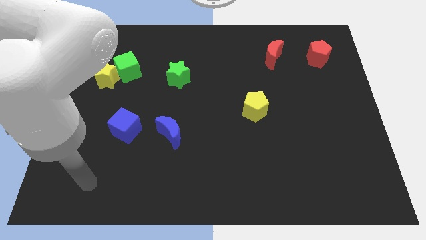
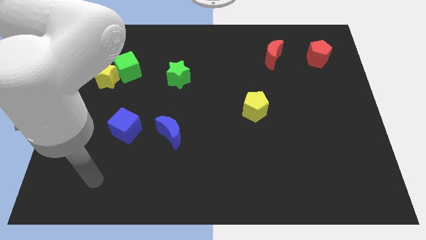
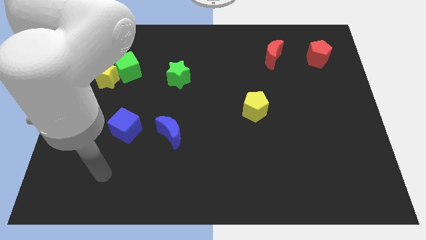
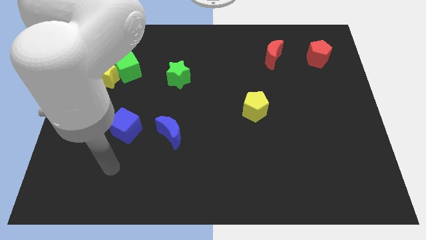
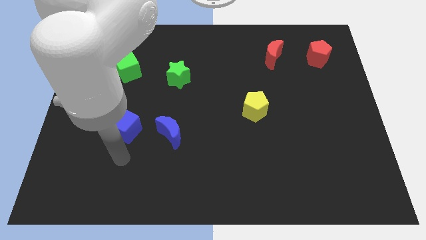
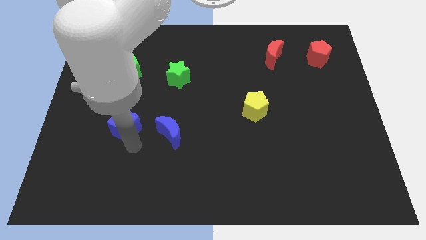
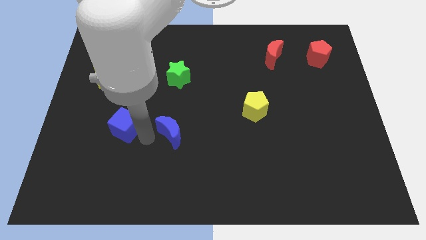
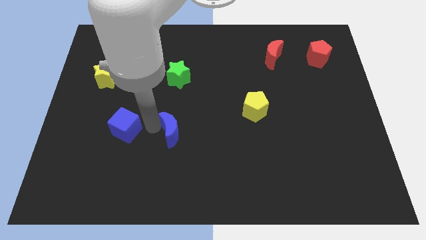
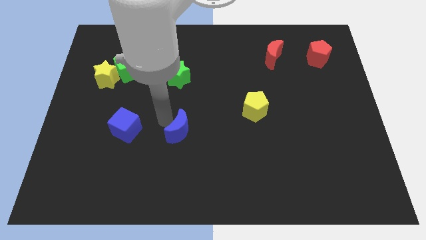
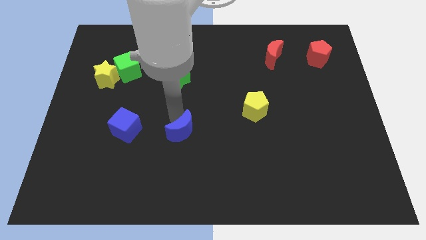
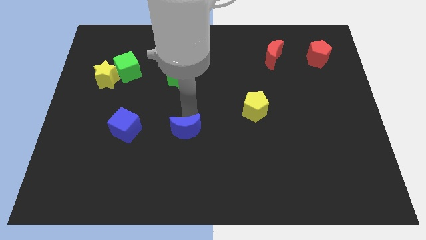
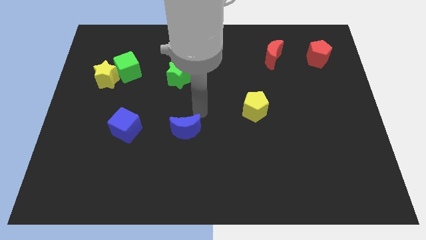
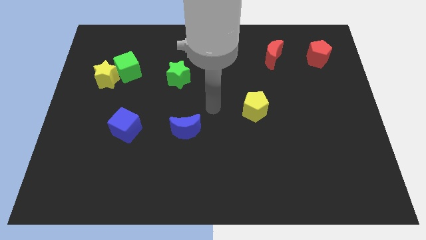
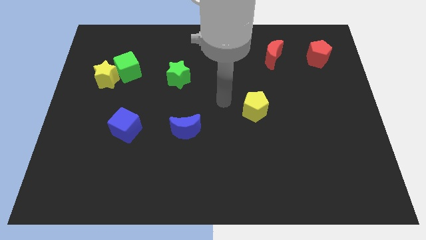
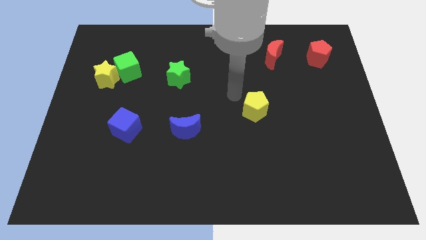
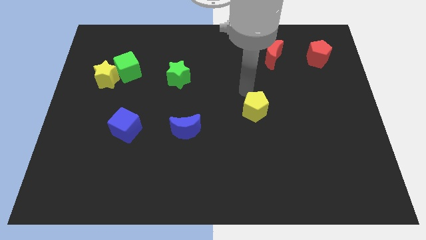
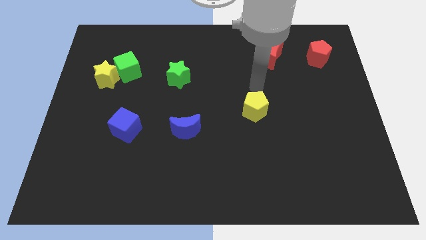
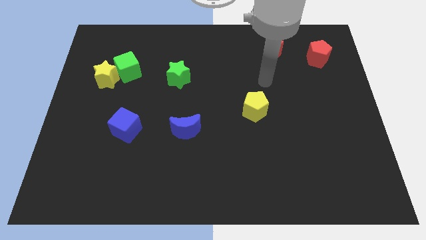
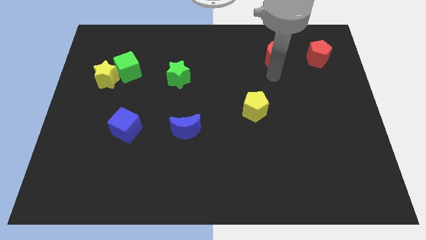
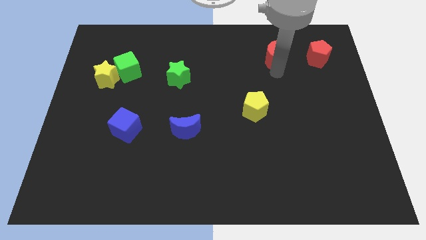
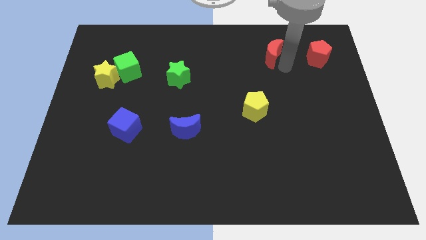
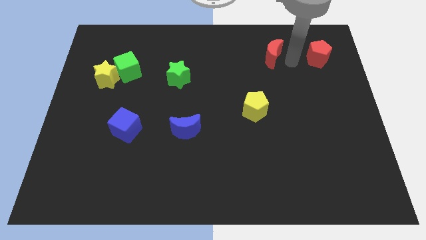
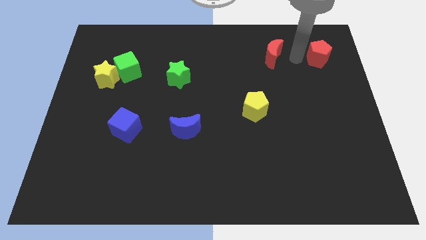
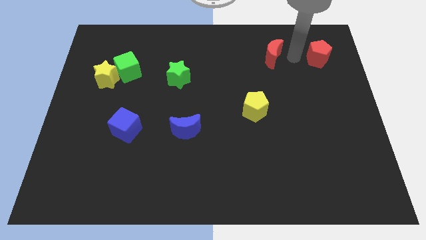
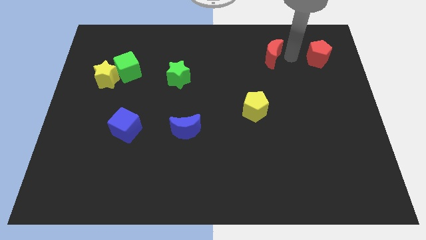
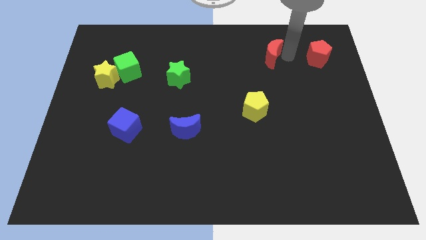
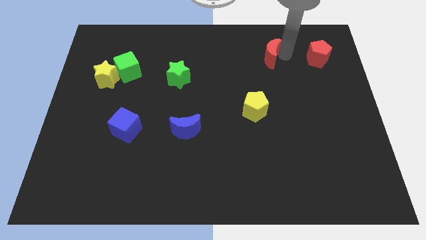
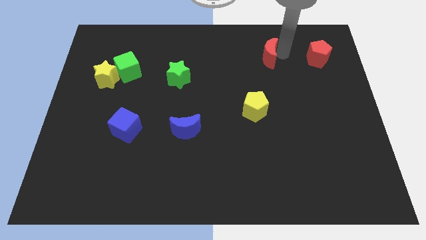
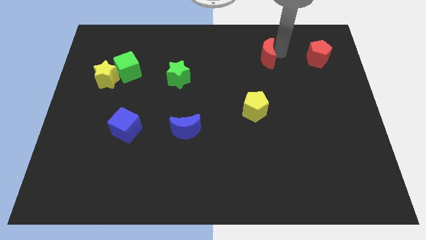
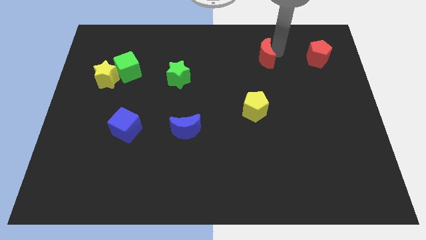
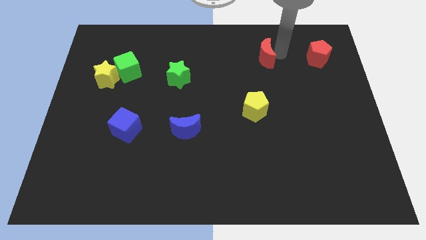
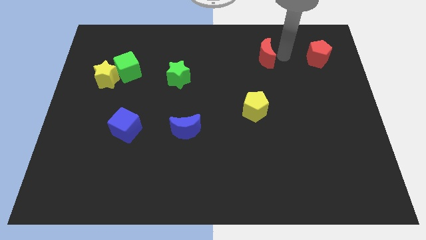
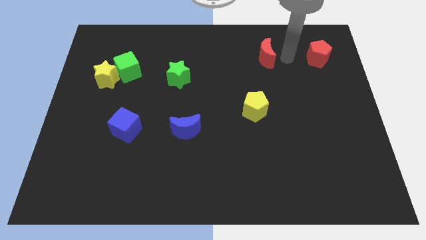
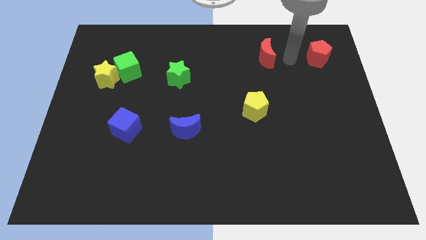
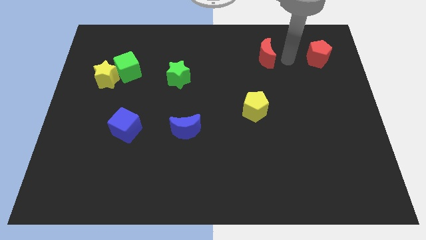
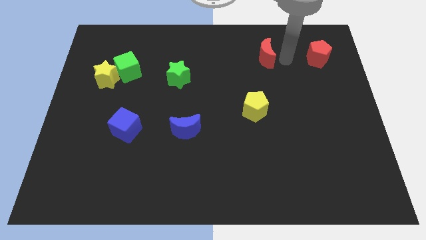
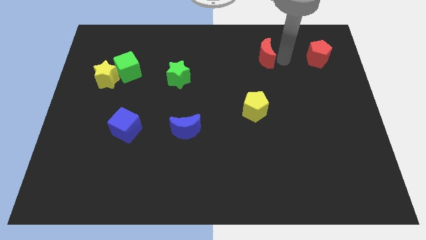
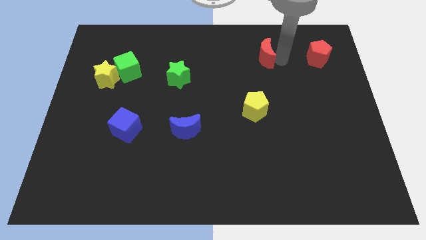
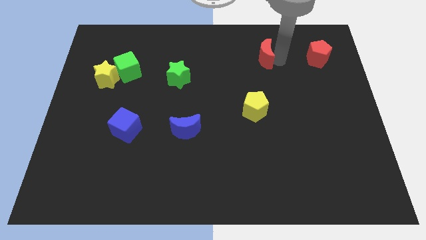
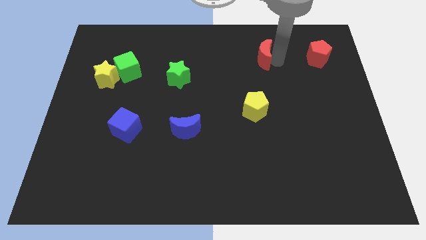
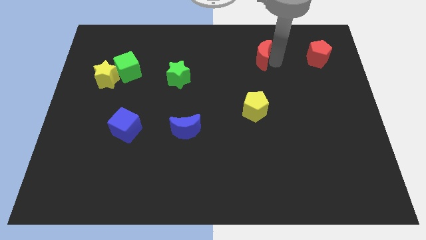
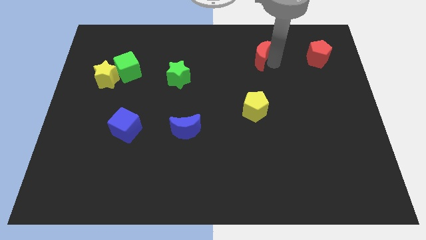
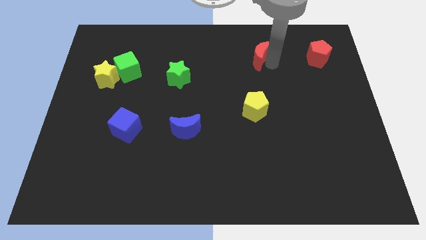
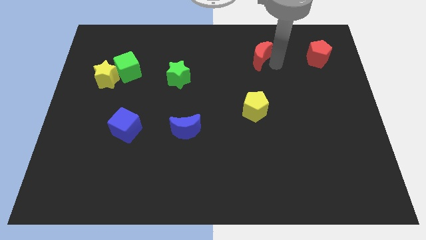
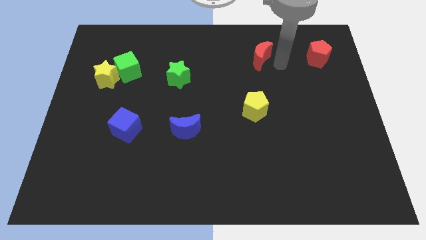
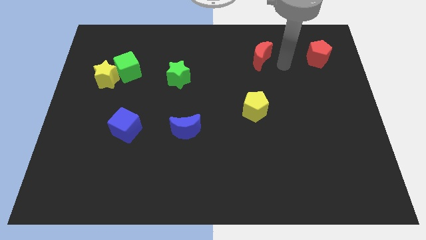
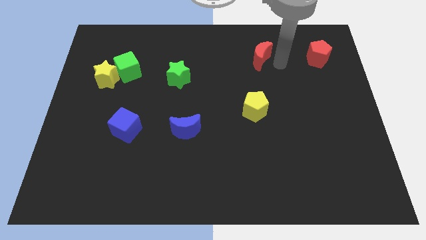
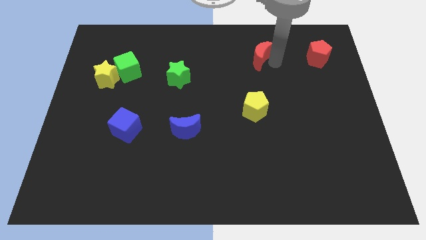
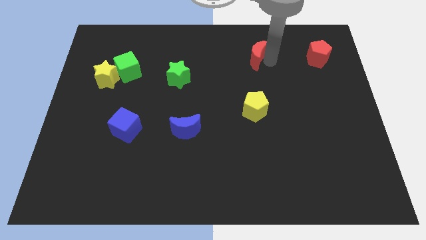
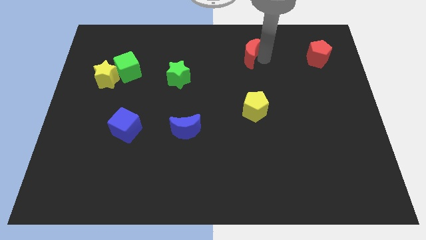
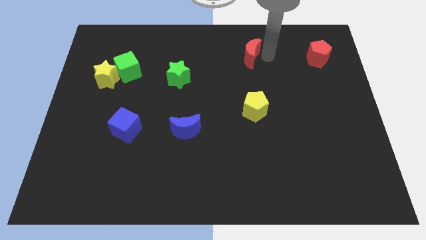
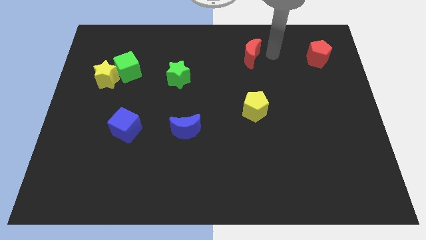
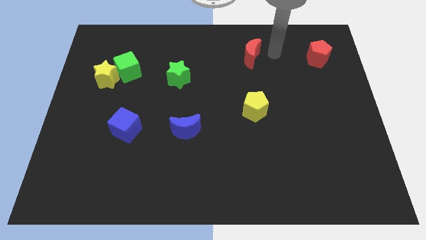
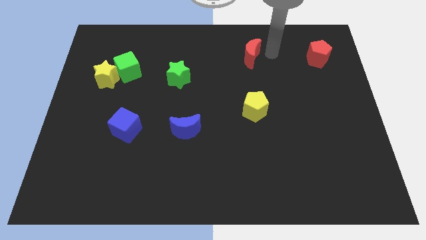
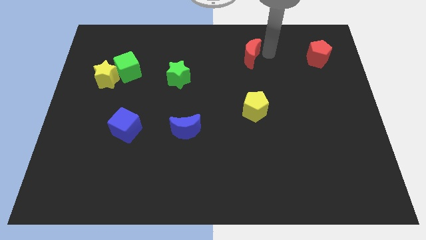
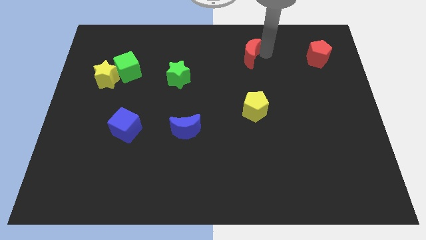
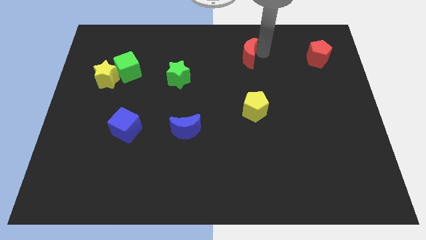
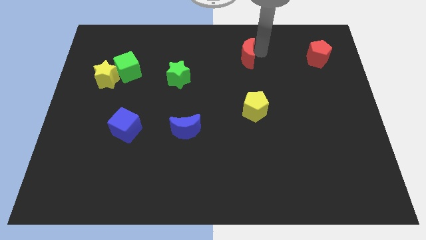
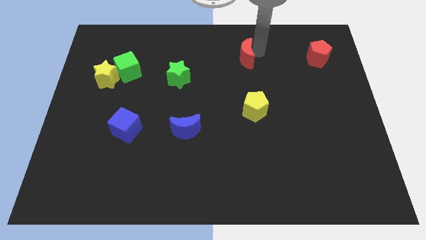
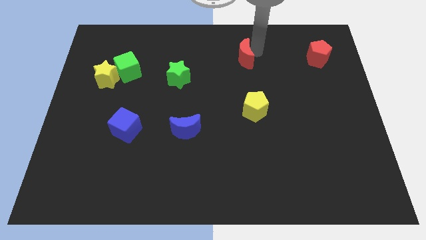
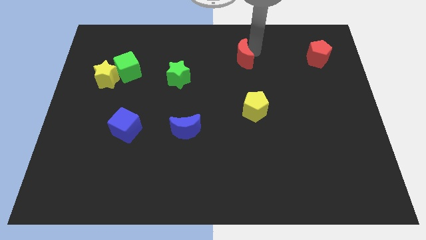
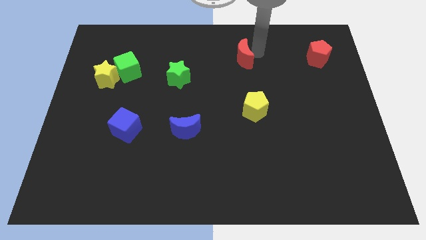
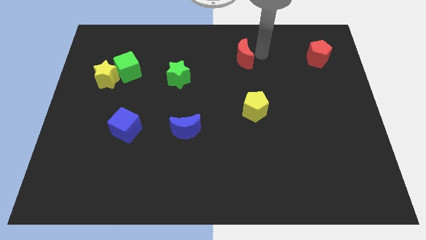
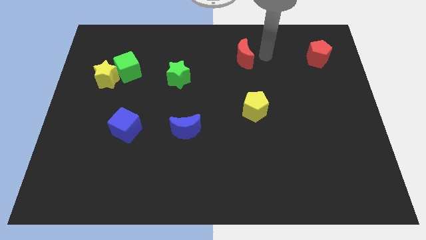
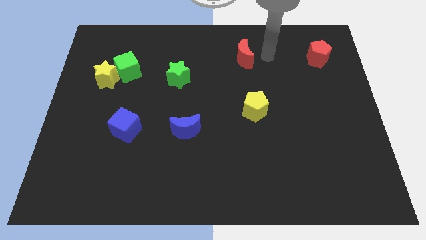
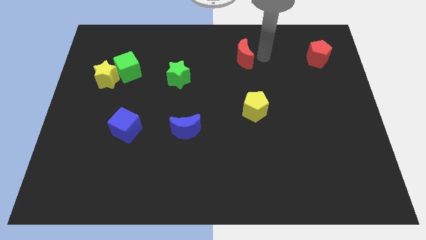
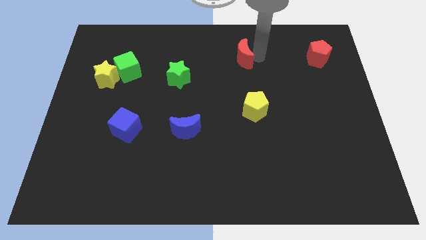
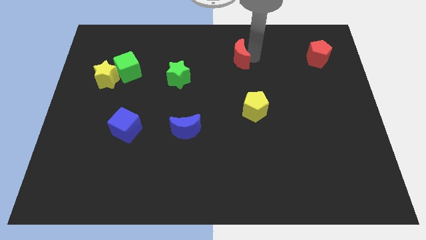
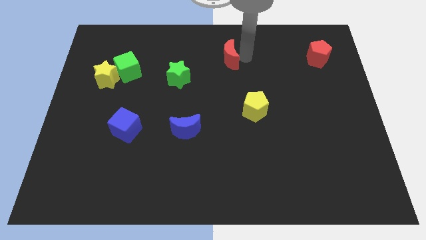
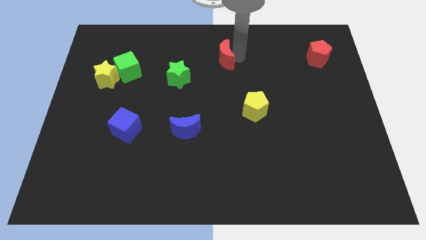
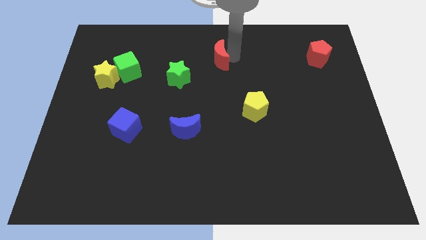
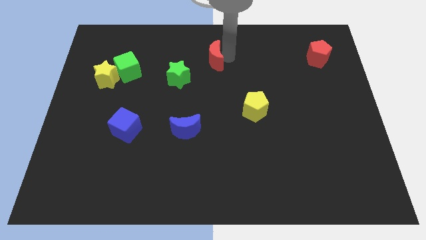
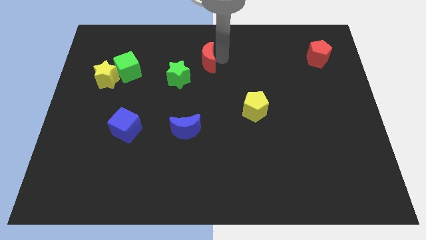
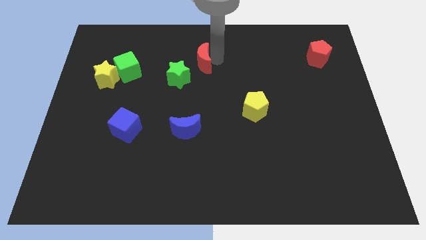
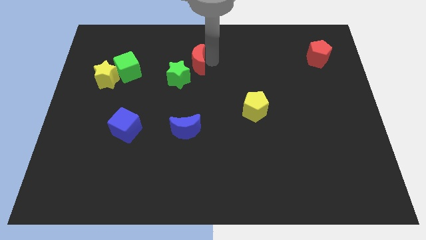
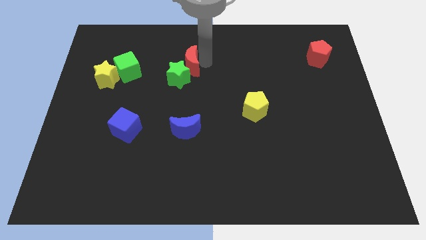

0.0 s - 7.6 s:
slide the red moon to the left

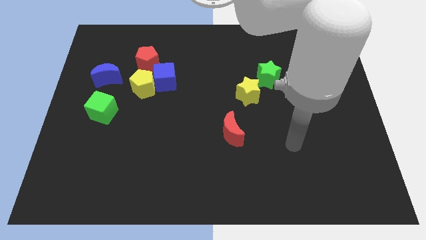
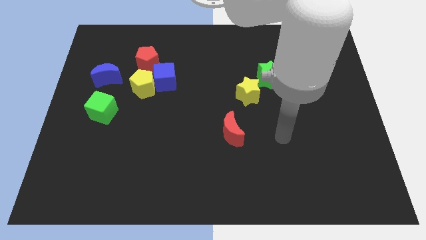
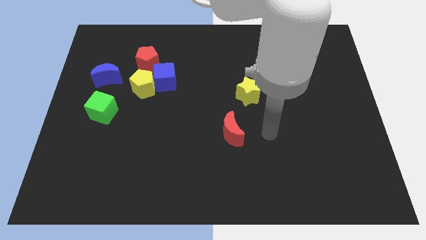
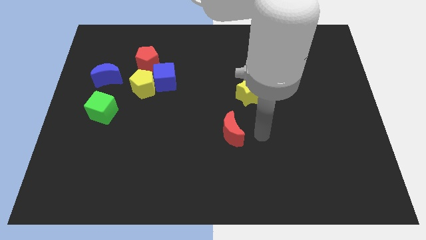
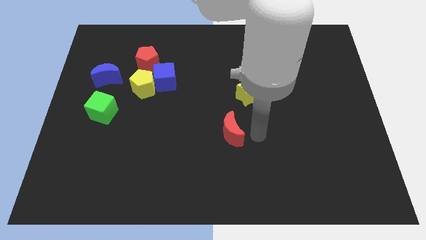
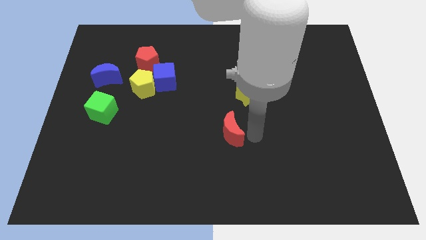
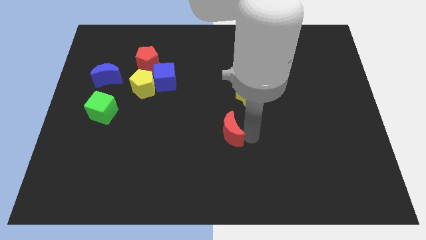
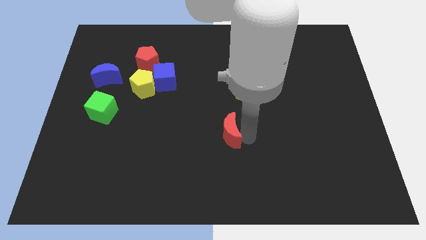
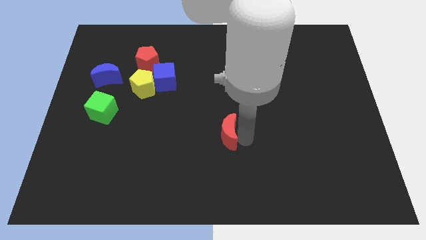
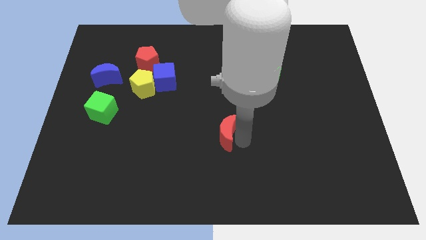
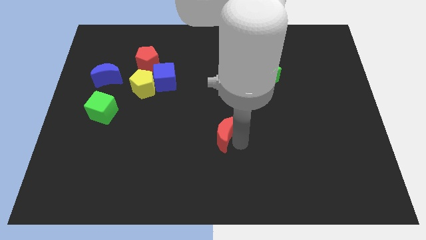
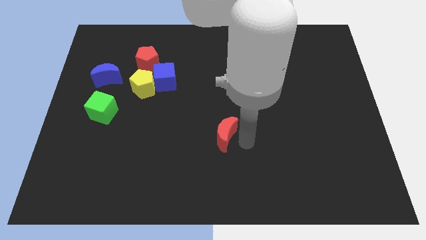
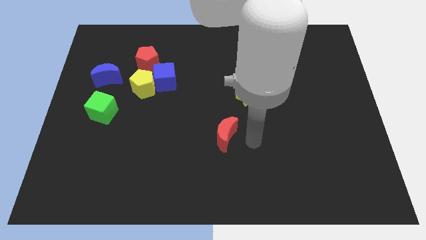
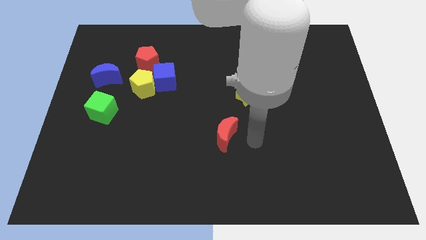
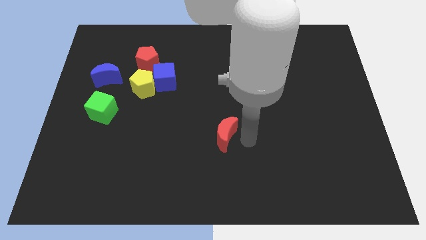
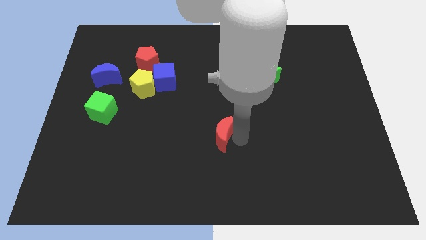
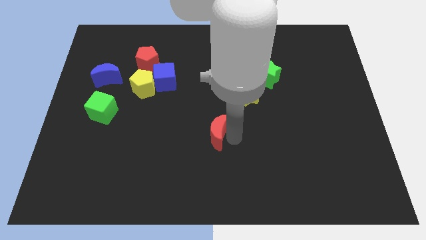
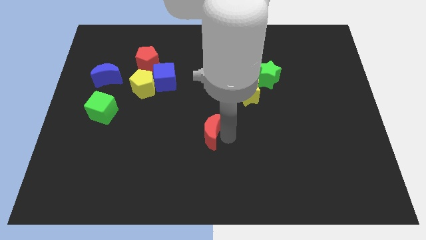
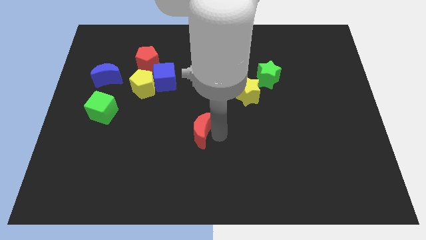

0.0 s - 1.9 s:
slightly slide the red moon left
